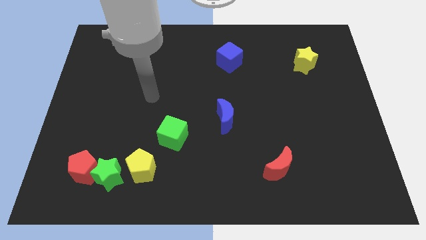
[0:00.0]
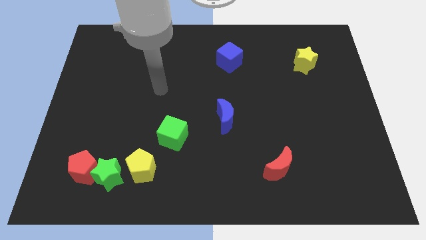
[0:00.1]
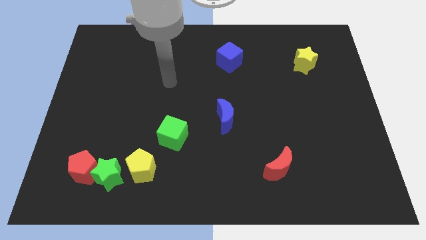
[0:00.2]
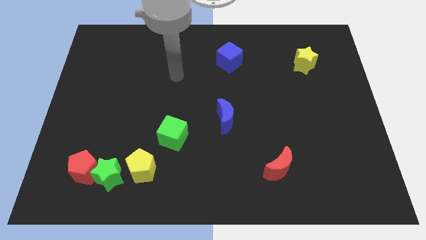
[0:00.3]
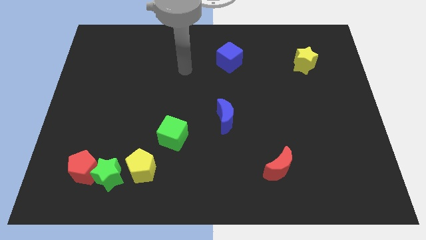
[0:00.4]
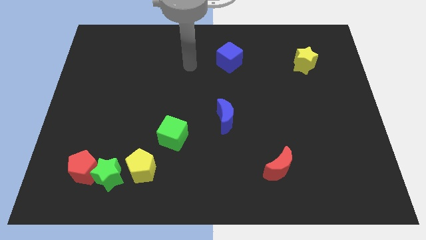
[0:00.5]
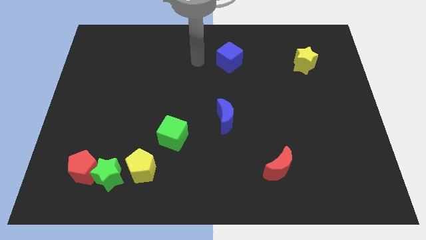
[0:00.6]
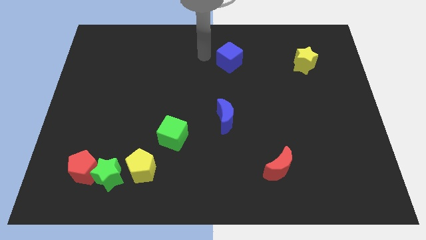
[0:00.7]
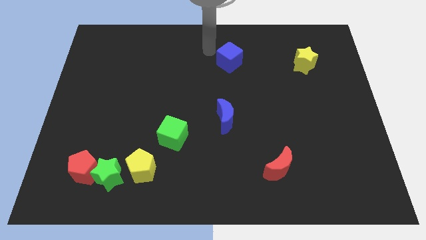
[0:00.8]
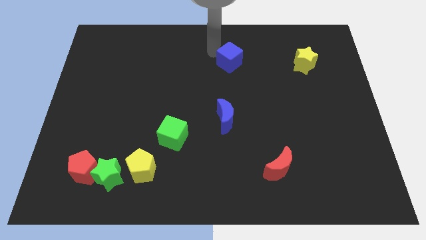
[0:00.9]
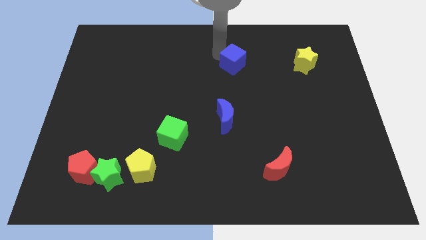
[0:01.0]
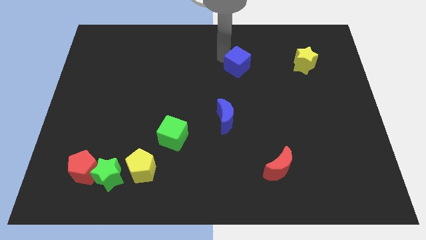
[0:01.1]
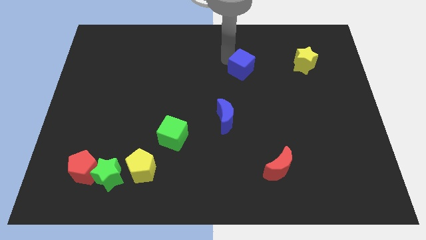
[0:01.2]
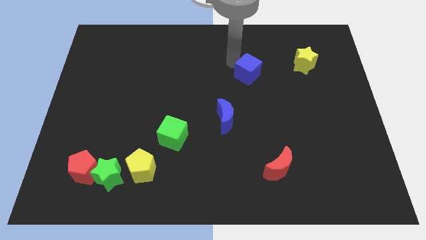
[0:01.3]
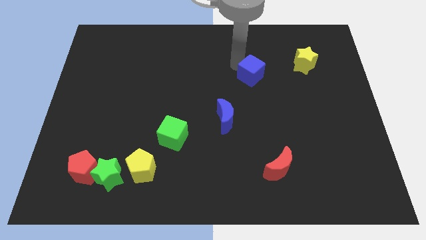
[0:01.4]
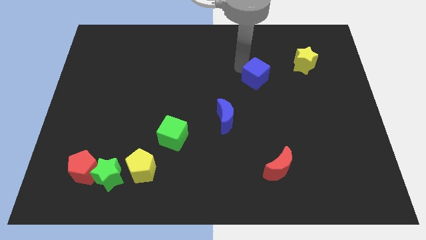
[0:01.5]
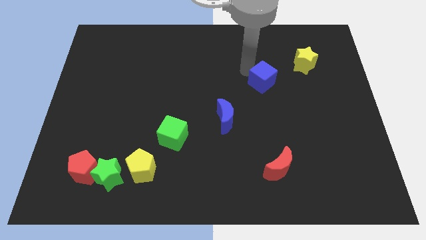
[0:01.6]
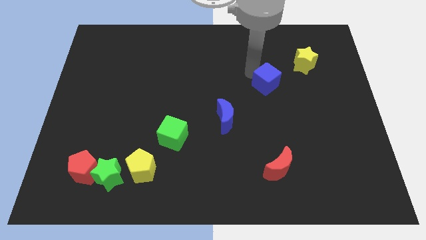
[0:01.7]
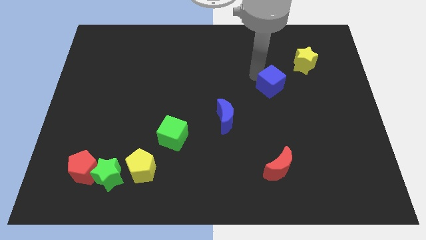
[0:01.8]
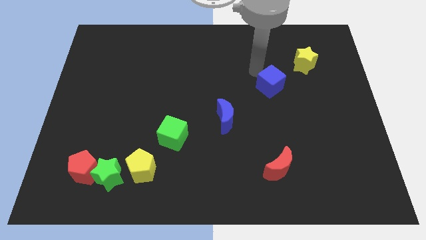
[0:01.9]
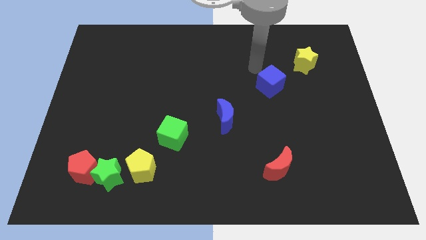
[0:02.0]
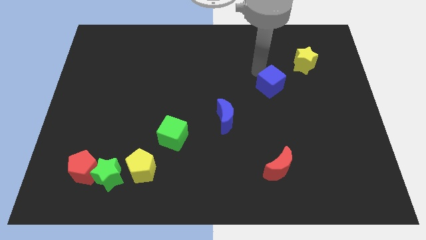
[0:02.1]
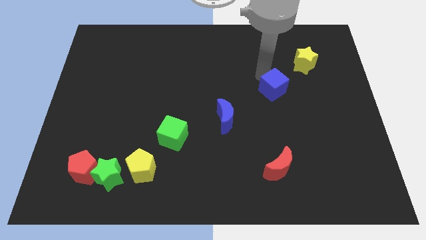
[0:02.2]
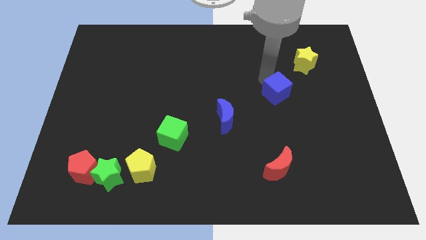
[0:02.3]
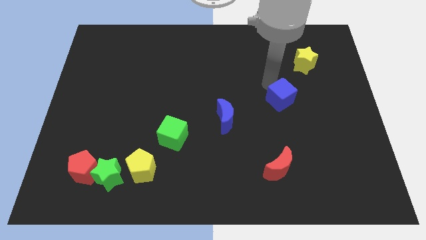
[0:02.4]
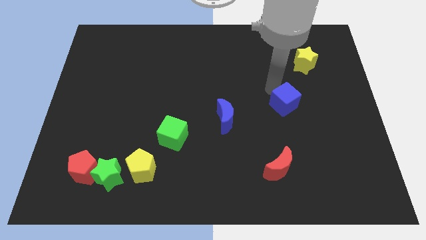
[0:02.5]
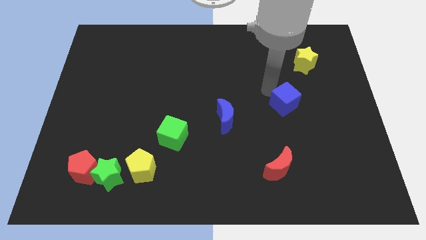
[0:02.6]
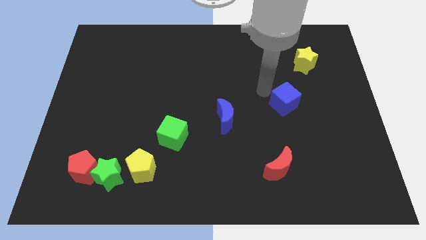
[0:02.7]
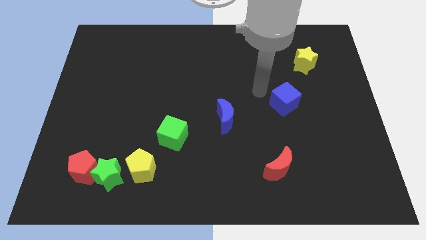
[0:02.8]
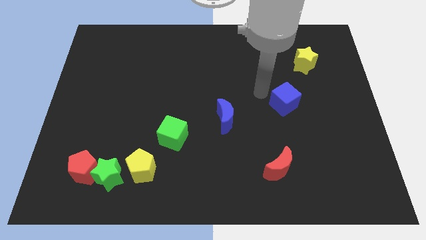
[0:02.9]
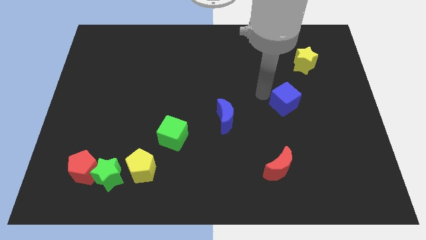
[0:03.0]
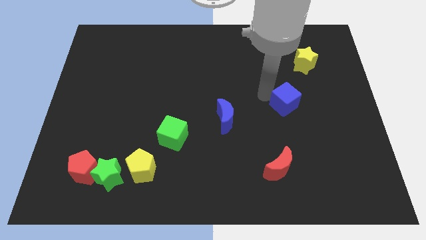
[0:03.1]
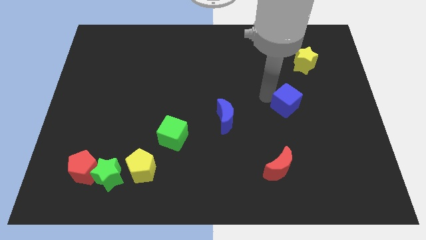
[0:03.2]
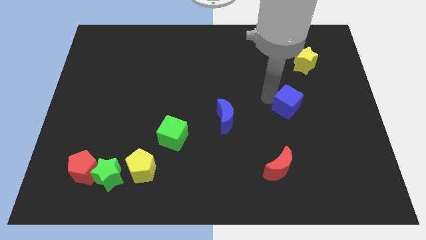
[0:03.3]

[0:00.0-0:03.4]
push the blue cube down and right

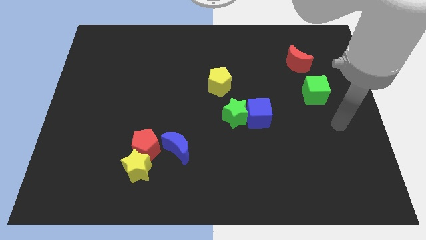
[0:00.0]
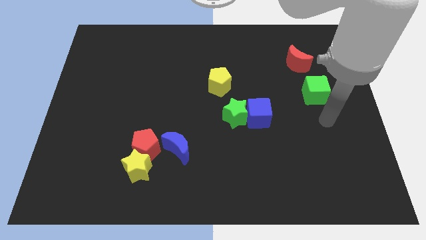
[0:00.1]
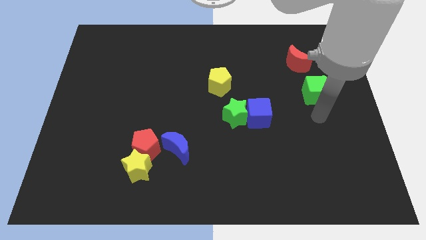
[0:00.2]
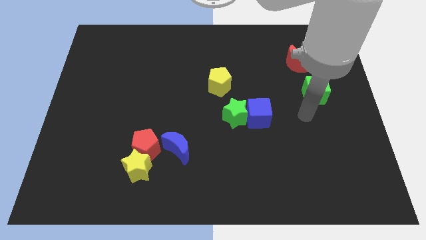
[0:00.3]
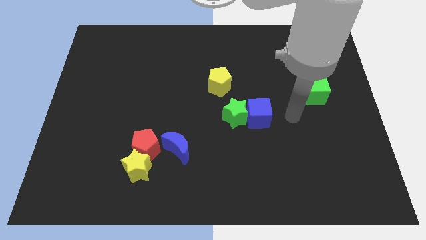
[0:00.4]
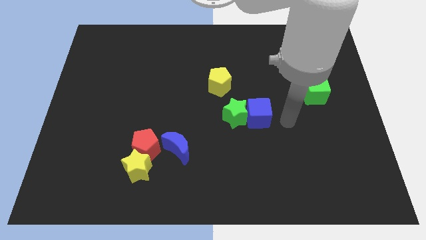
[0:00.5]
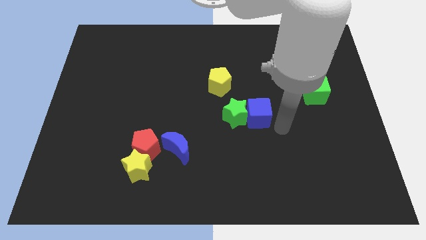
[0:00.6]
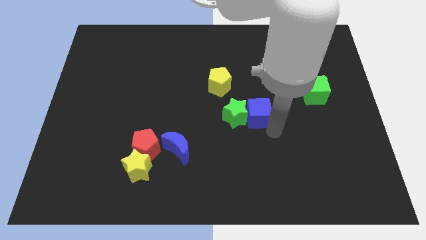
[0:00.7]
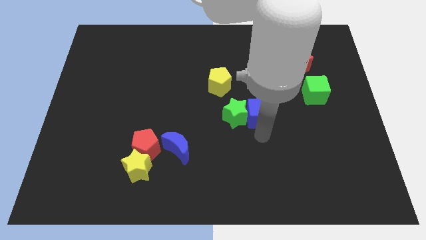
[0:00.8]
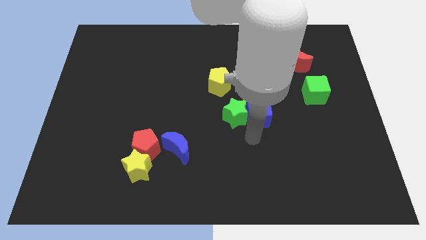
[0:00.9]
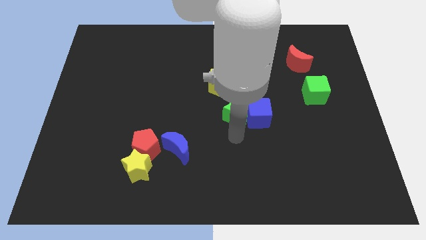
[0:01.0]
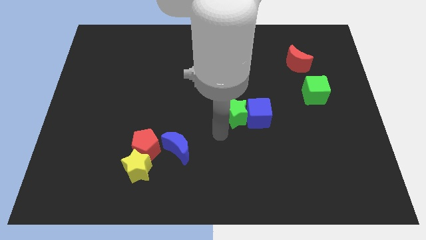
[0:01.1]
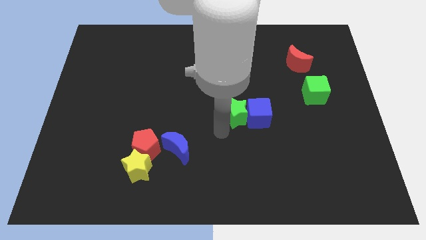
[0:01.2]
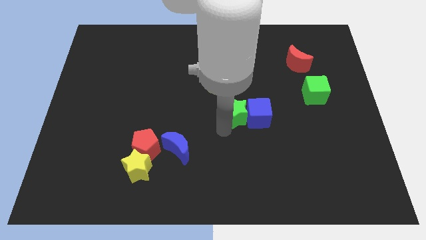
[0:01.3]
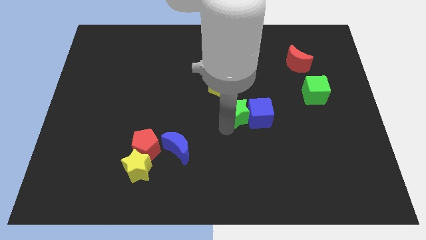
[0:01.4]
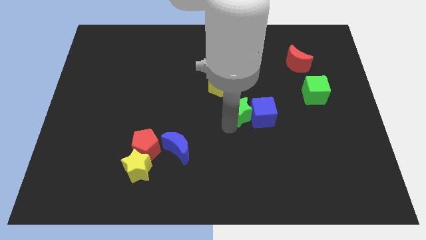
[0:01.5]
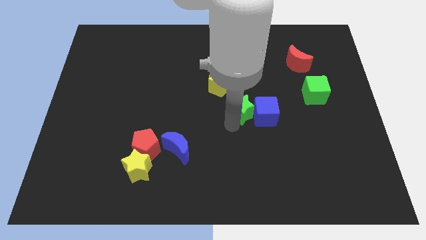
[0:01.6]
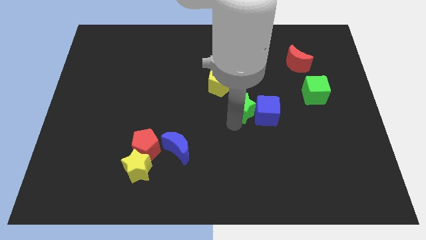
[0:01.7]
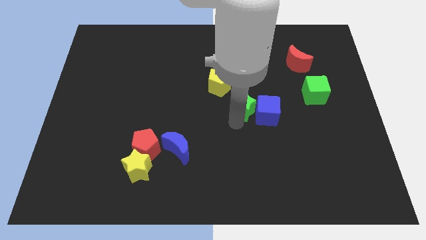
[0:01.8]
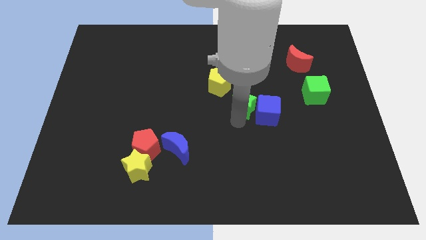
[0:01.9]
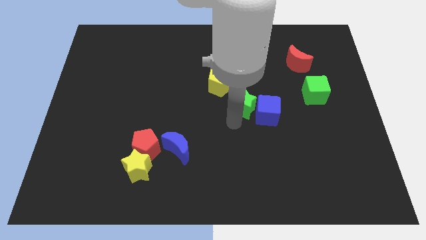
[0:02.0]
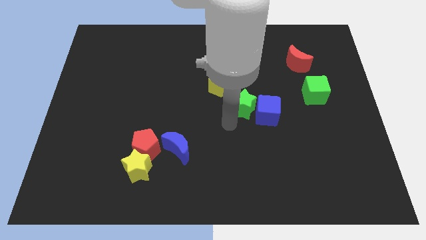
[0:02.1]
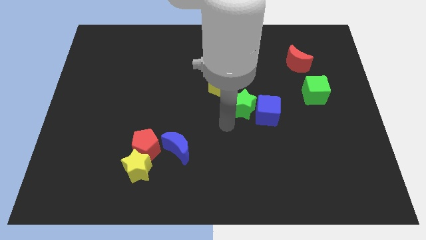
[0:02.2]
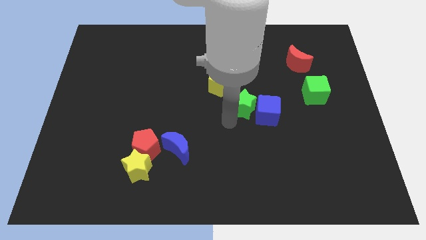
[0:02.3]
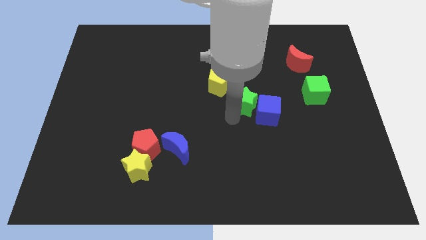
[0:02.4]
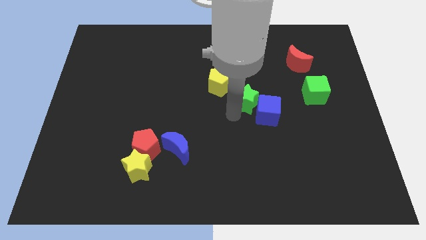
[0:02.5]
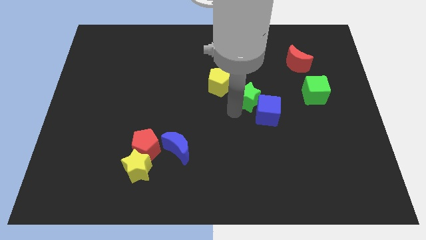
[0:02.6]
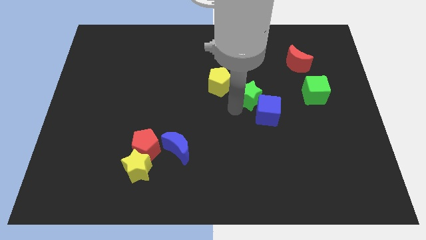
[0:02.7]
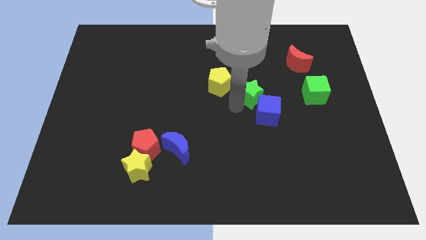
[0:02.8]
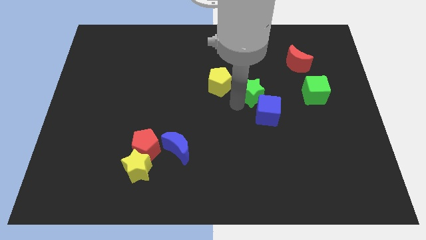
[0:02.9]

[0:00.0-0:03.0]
slightly push the green star diagonally up and right

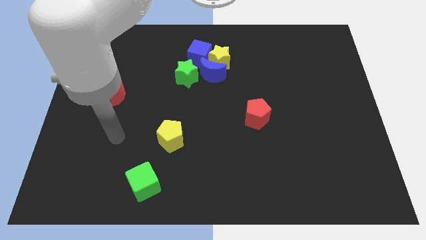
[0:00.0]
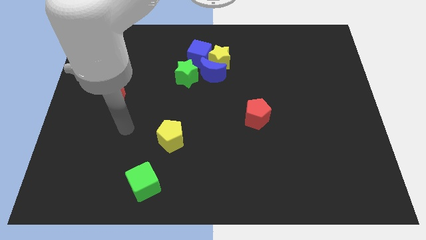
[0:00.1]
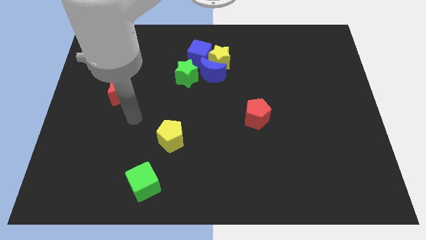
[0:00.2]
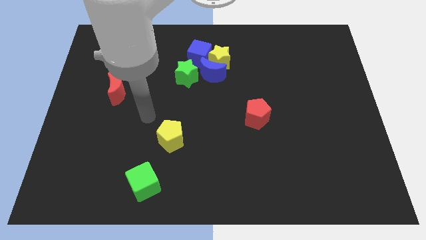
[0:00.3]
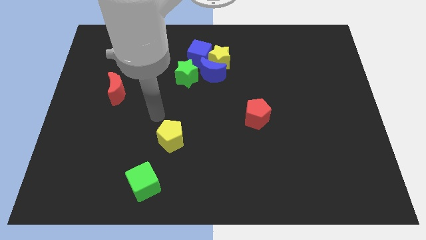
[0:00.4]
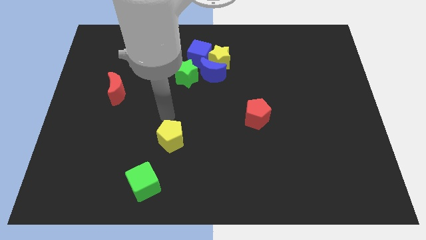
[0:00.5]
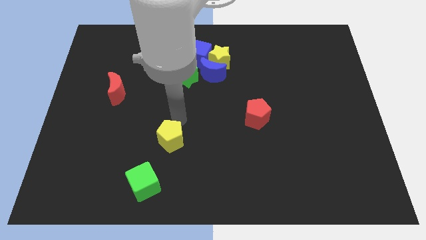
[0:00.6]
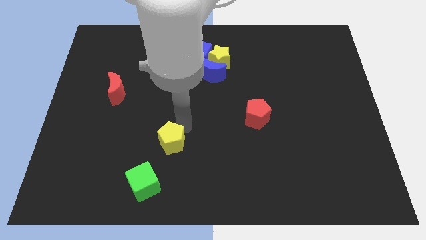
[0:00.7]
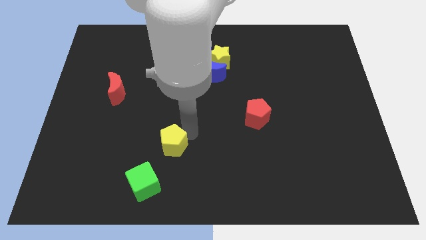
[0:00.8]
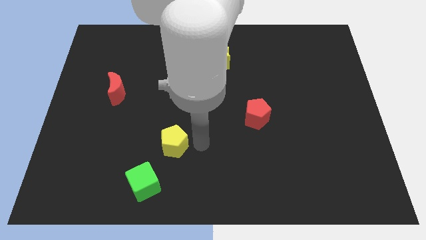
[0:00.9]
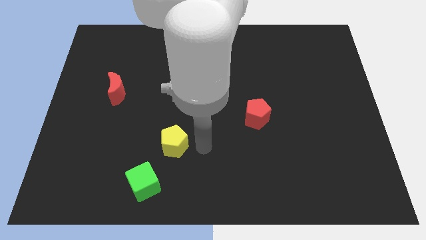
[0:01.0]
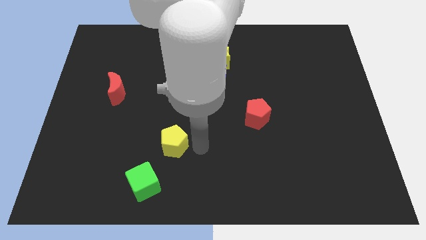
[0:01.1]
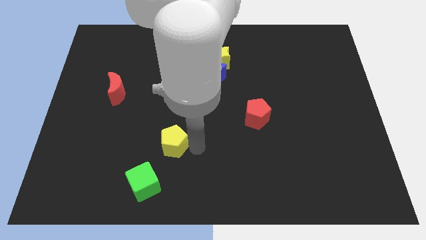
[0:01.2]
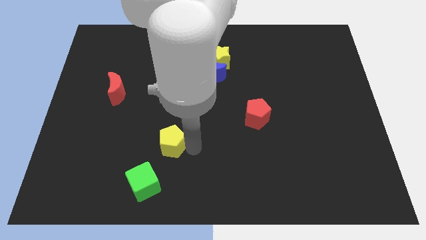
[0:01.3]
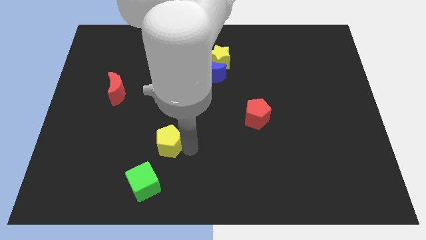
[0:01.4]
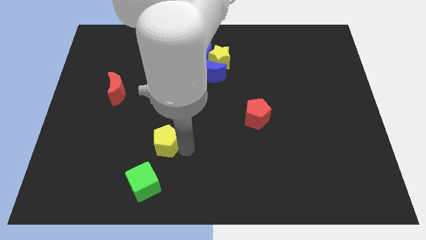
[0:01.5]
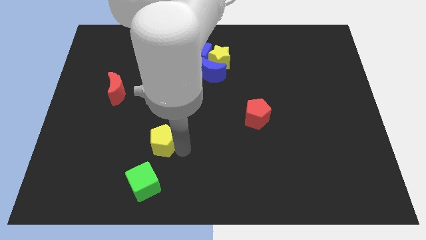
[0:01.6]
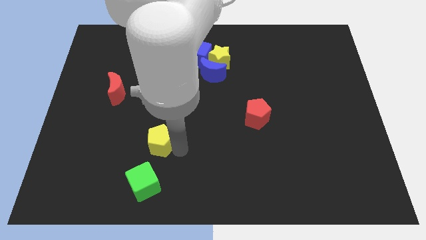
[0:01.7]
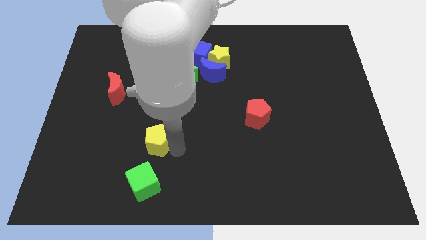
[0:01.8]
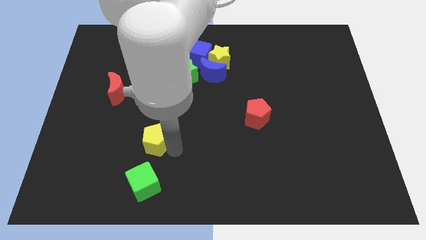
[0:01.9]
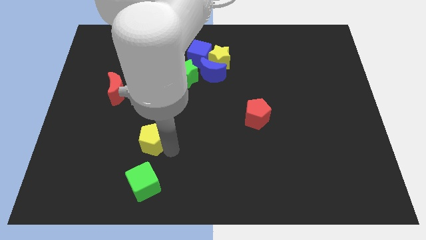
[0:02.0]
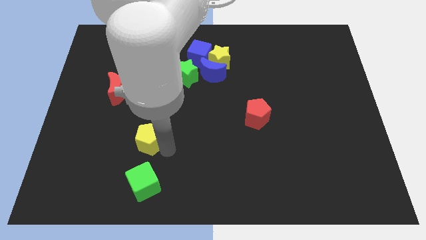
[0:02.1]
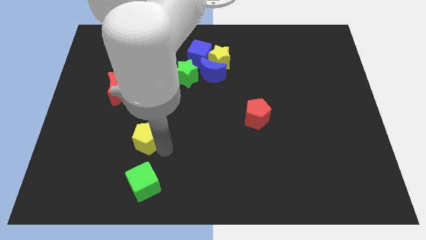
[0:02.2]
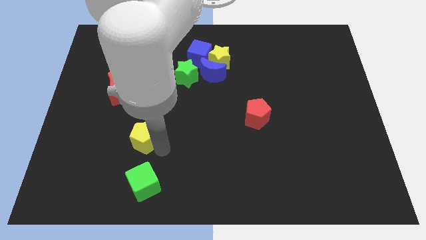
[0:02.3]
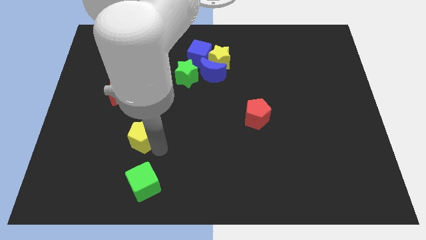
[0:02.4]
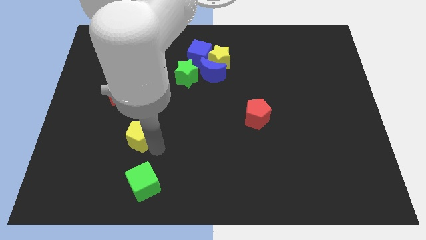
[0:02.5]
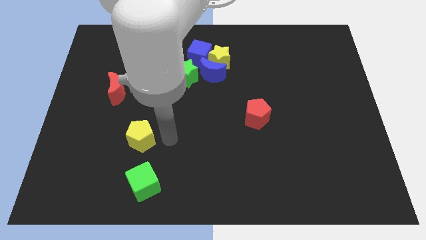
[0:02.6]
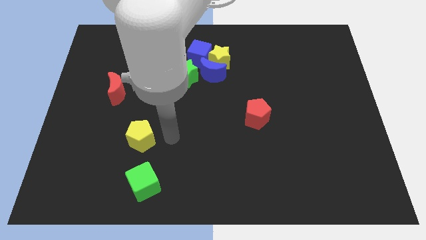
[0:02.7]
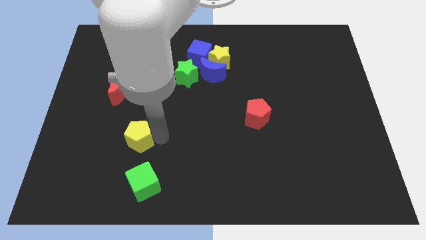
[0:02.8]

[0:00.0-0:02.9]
push the yellow pentagon somewhat left
